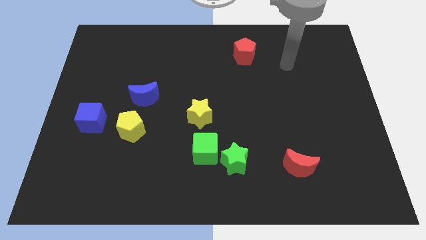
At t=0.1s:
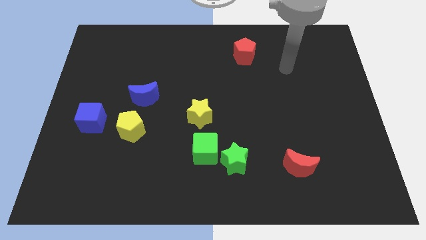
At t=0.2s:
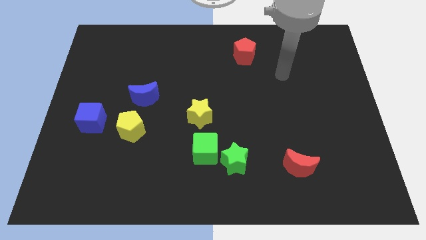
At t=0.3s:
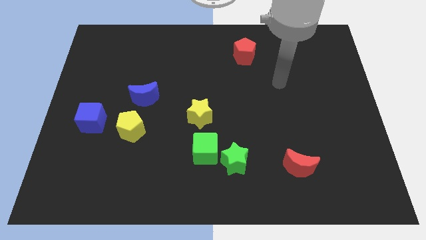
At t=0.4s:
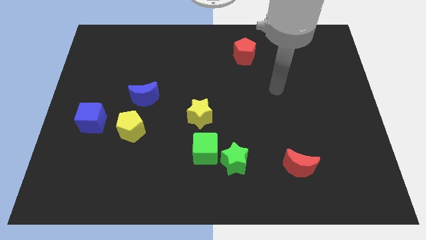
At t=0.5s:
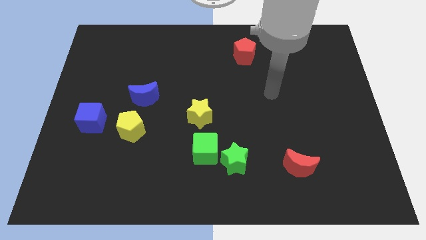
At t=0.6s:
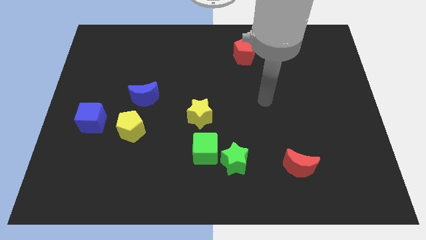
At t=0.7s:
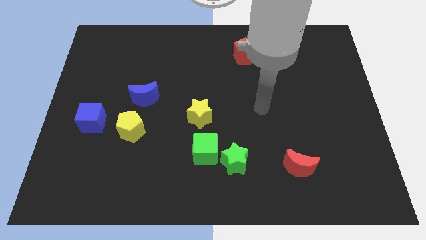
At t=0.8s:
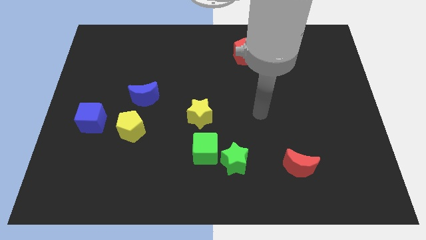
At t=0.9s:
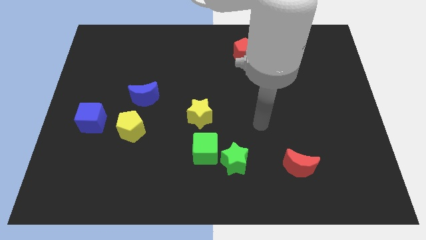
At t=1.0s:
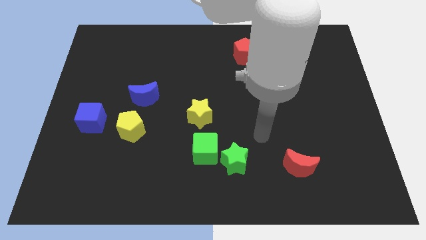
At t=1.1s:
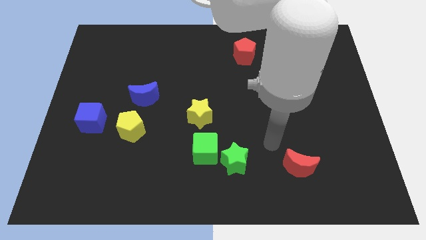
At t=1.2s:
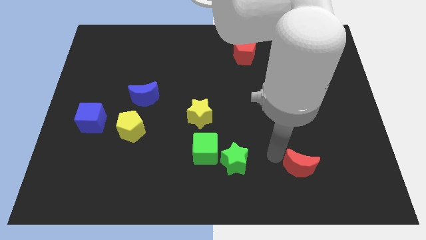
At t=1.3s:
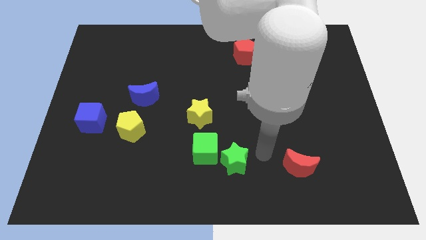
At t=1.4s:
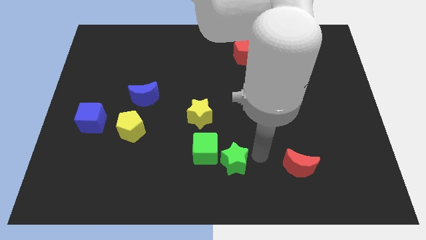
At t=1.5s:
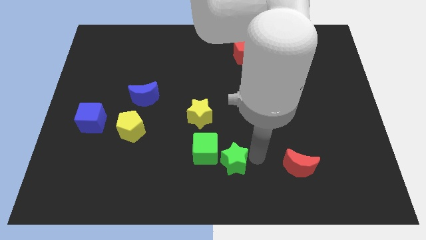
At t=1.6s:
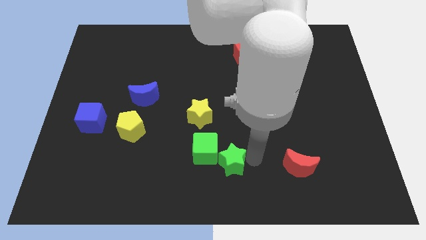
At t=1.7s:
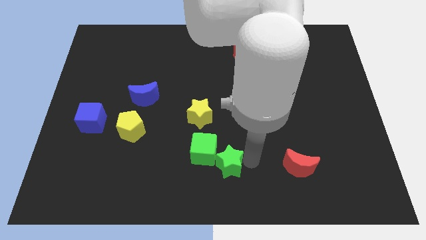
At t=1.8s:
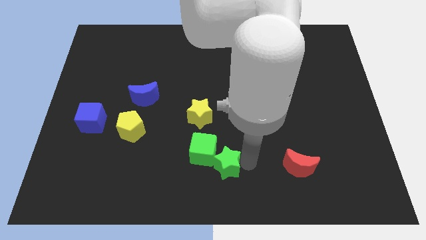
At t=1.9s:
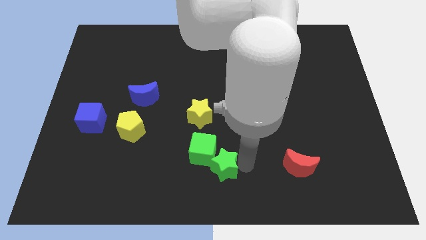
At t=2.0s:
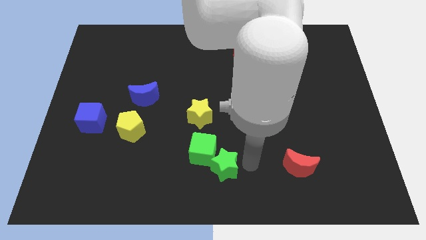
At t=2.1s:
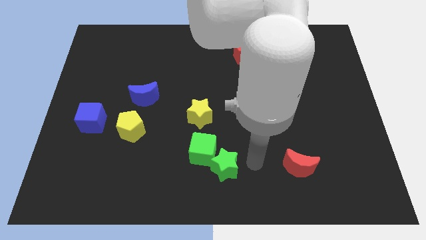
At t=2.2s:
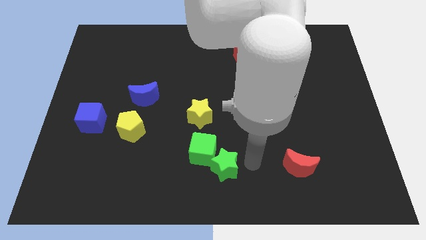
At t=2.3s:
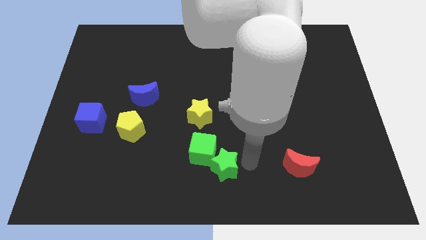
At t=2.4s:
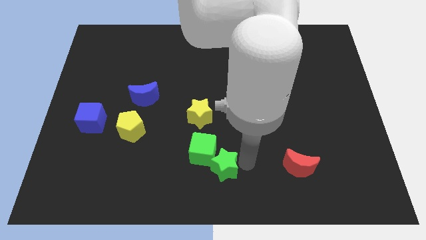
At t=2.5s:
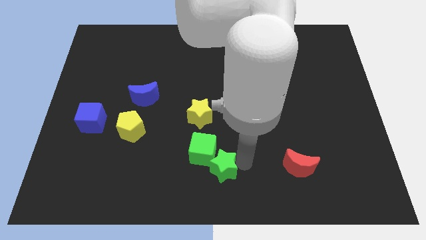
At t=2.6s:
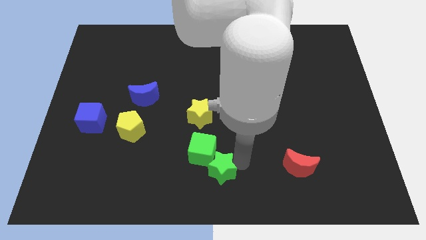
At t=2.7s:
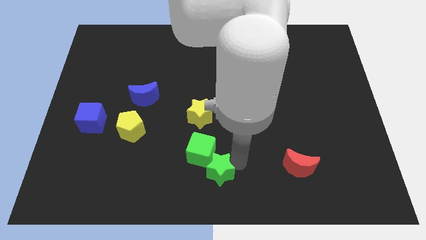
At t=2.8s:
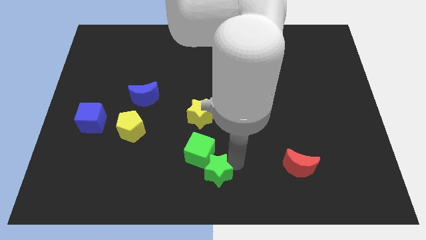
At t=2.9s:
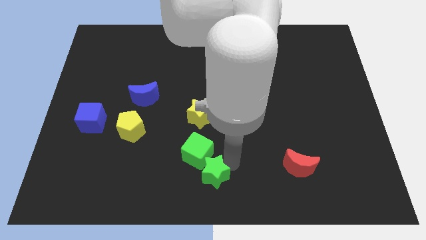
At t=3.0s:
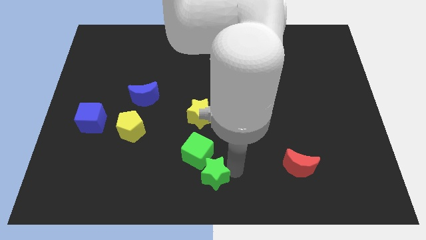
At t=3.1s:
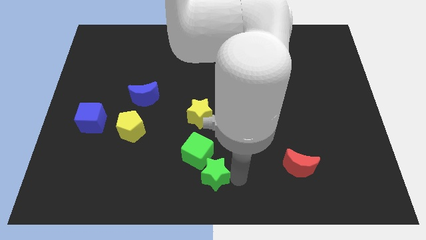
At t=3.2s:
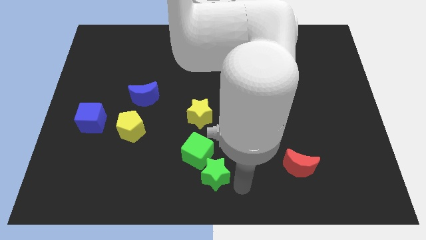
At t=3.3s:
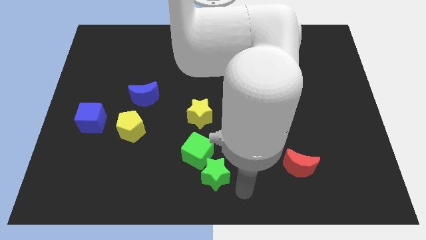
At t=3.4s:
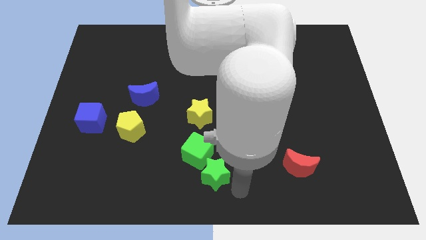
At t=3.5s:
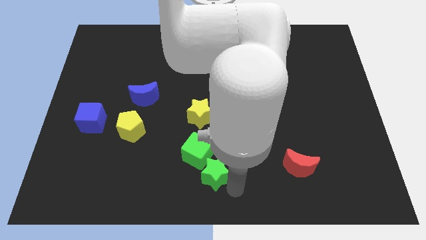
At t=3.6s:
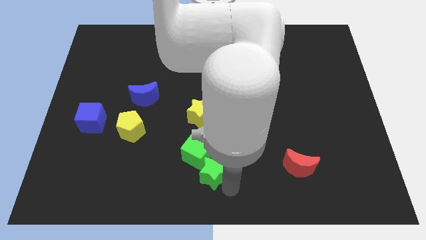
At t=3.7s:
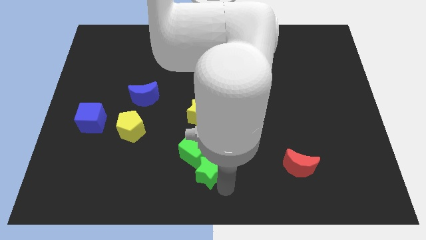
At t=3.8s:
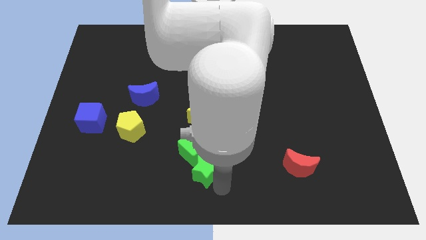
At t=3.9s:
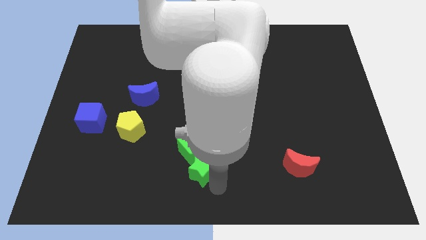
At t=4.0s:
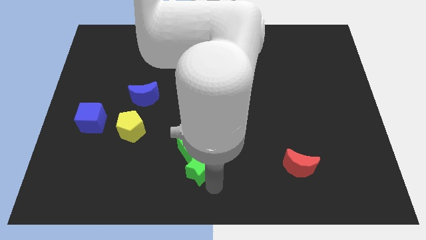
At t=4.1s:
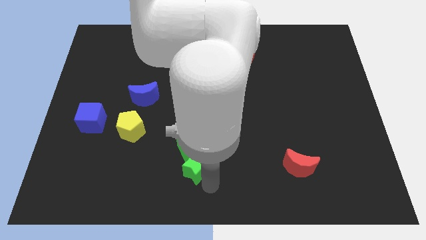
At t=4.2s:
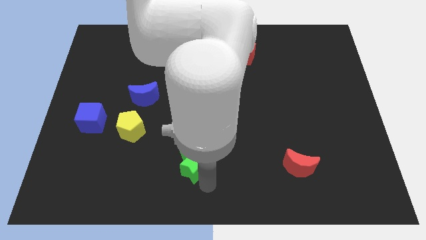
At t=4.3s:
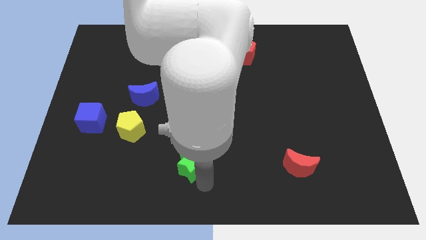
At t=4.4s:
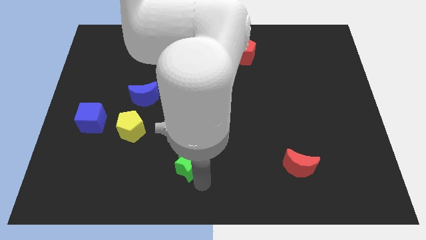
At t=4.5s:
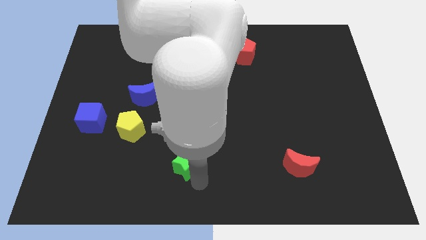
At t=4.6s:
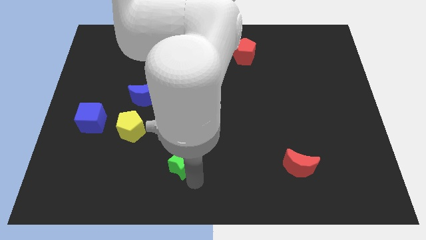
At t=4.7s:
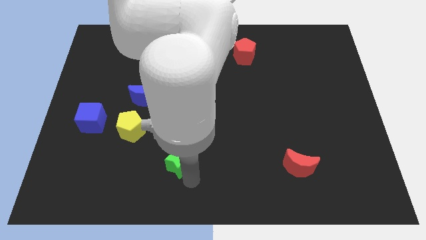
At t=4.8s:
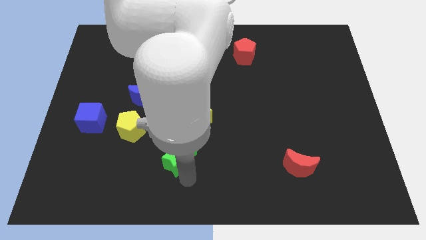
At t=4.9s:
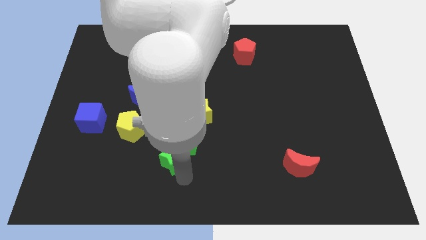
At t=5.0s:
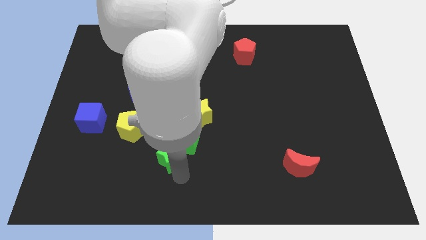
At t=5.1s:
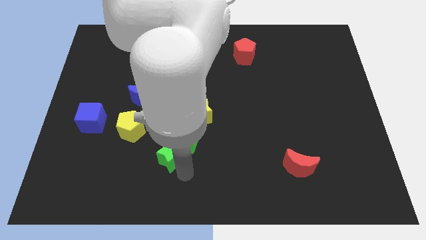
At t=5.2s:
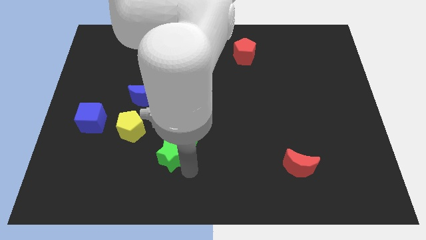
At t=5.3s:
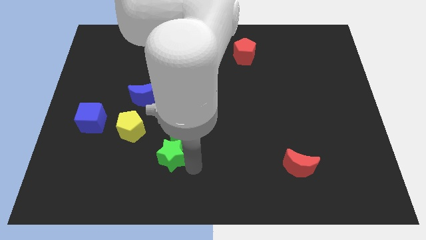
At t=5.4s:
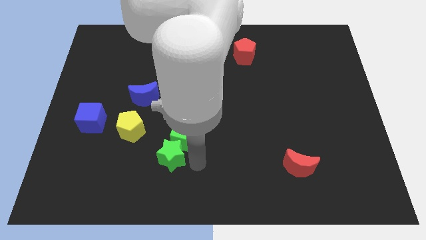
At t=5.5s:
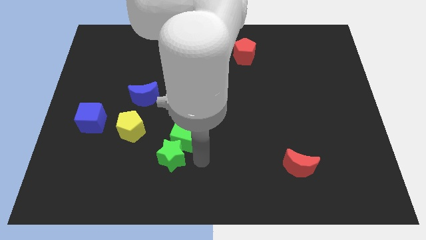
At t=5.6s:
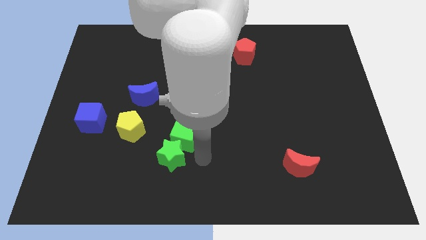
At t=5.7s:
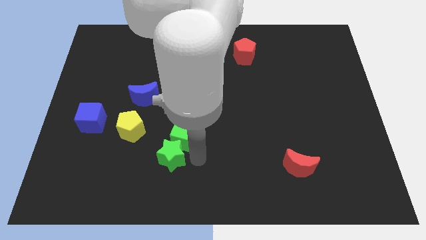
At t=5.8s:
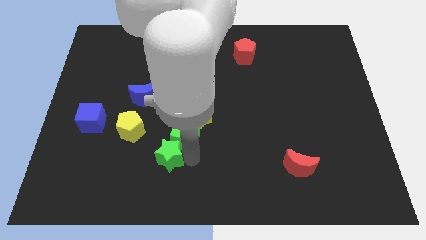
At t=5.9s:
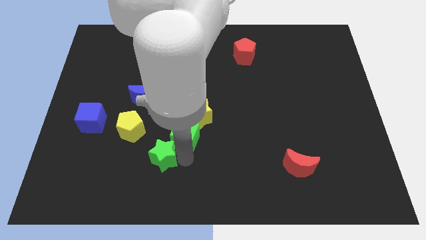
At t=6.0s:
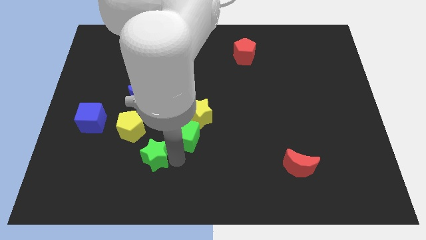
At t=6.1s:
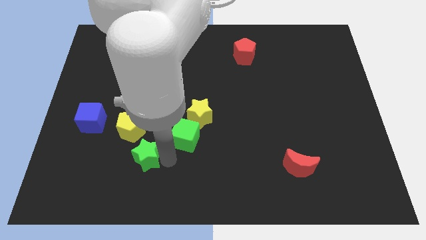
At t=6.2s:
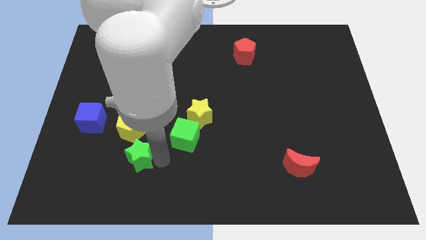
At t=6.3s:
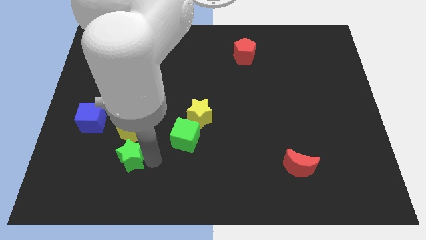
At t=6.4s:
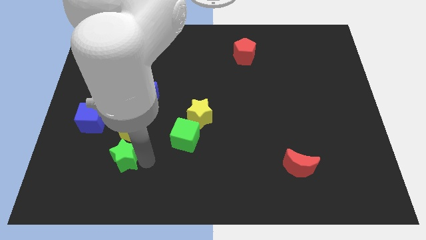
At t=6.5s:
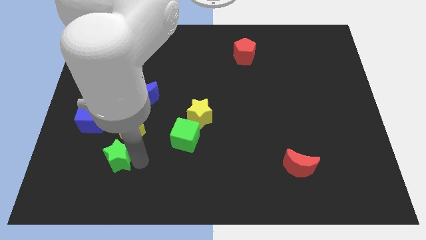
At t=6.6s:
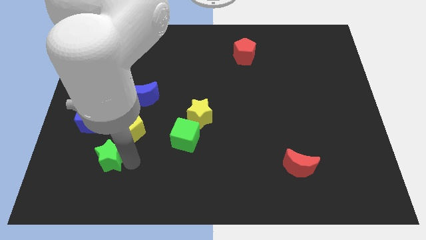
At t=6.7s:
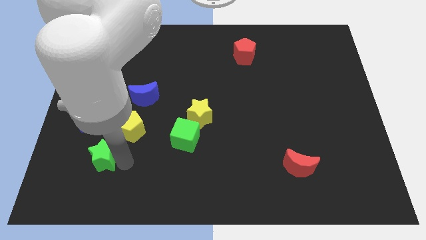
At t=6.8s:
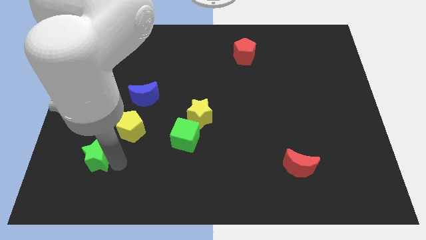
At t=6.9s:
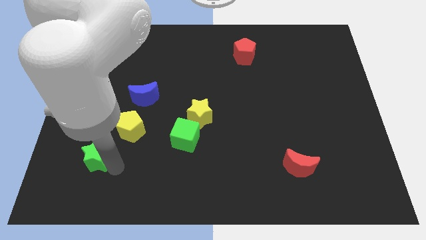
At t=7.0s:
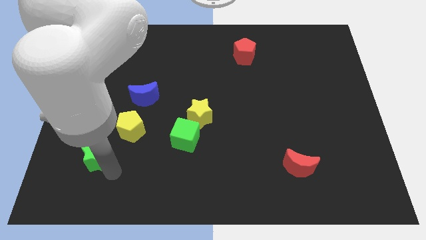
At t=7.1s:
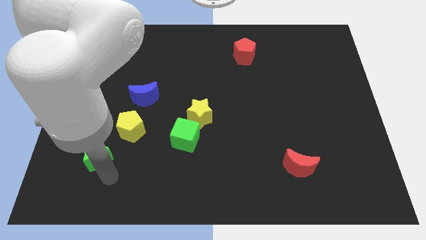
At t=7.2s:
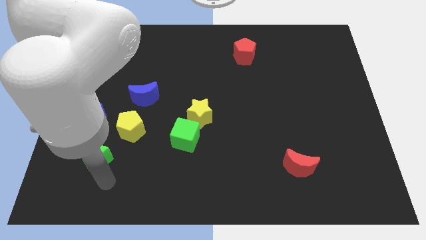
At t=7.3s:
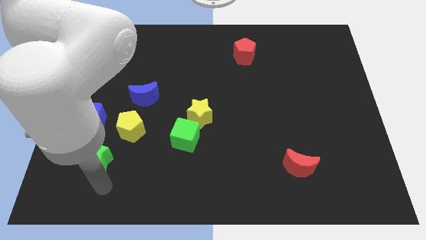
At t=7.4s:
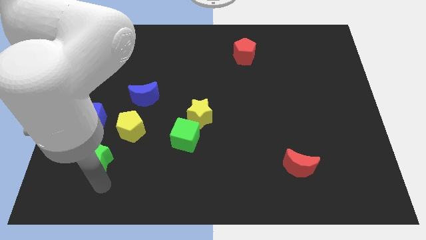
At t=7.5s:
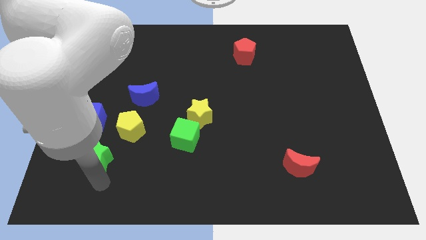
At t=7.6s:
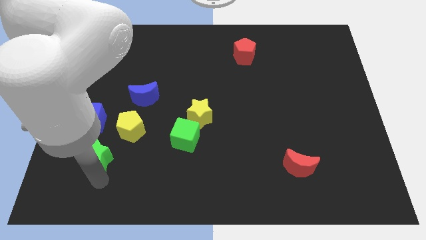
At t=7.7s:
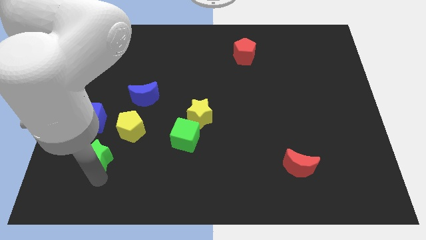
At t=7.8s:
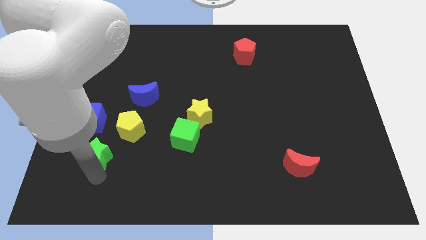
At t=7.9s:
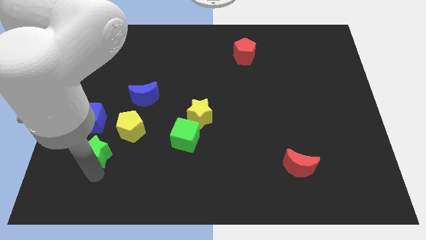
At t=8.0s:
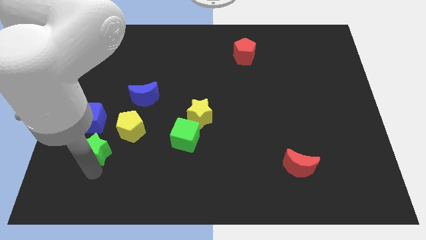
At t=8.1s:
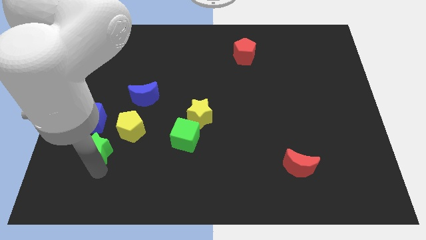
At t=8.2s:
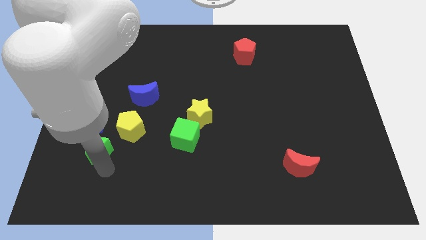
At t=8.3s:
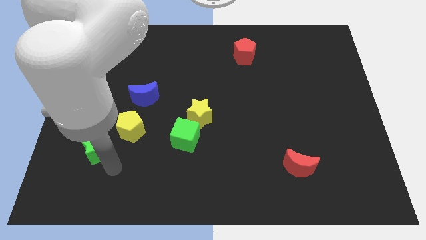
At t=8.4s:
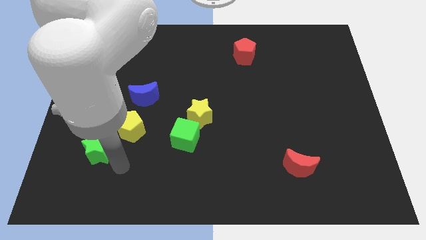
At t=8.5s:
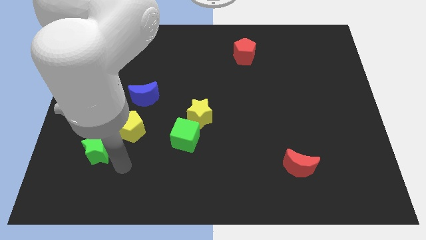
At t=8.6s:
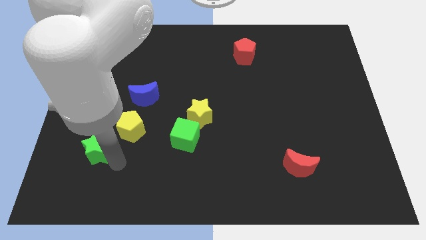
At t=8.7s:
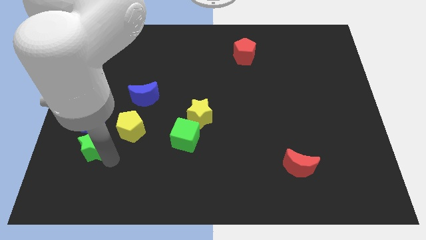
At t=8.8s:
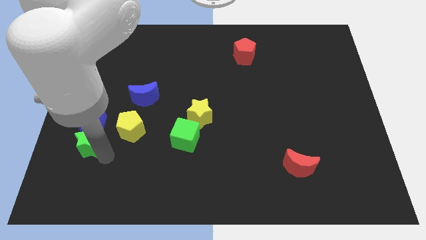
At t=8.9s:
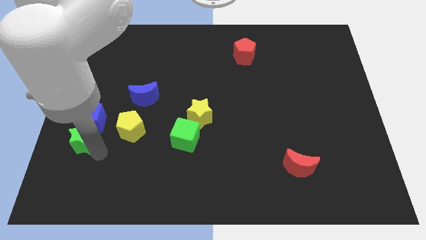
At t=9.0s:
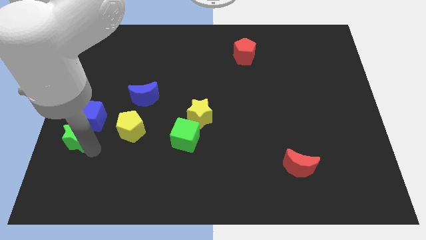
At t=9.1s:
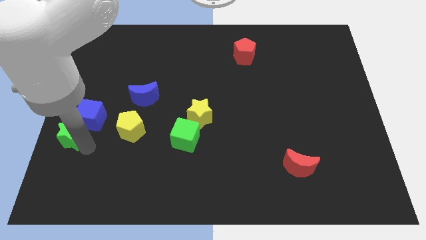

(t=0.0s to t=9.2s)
put the green star to the center left
